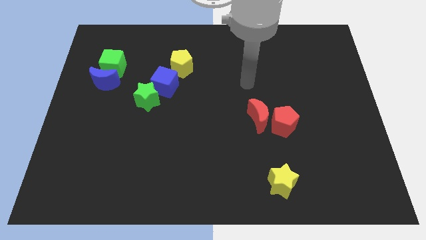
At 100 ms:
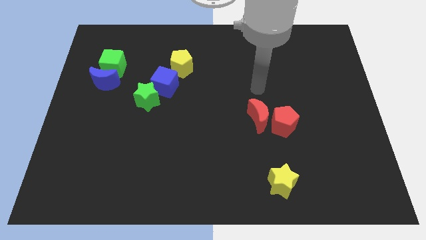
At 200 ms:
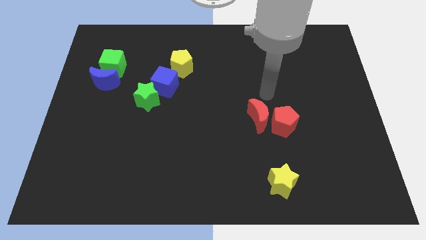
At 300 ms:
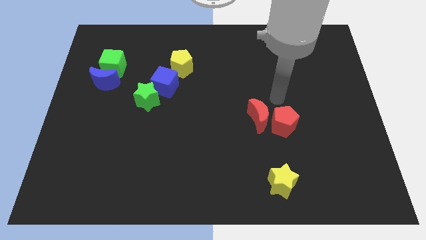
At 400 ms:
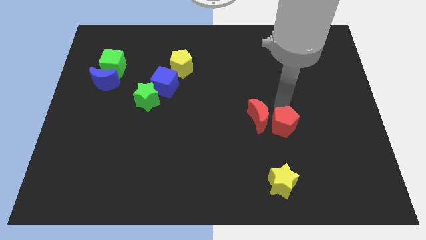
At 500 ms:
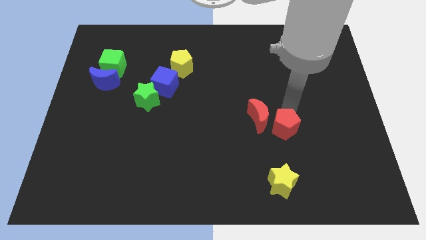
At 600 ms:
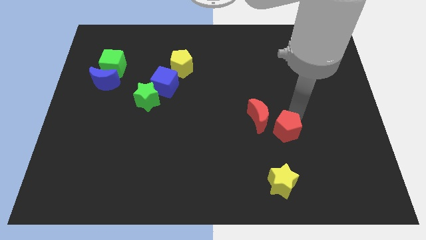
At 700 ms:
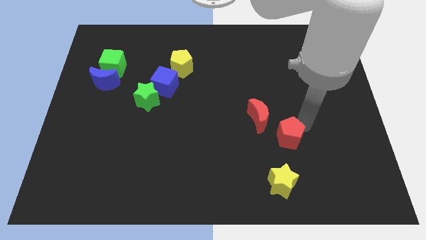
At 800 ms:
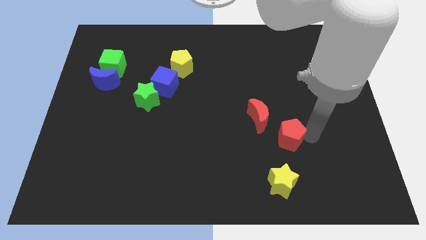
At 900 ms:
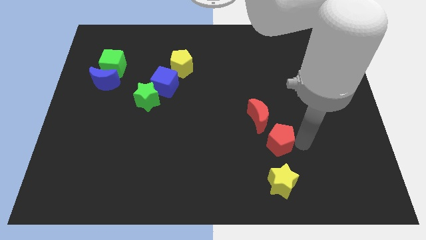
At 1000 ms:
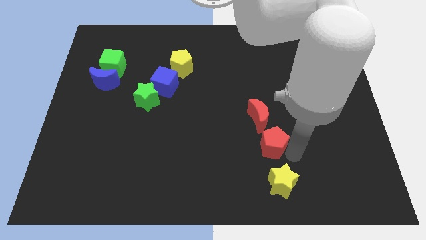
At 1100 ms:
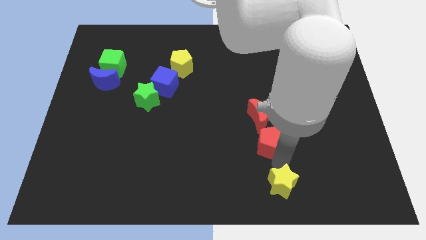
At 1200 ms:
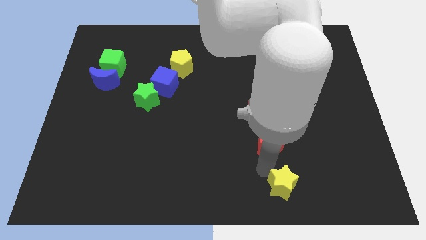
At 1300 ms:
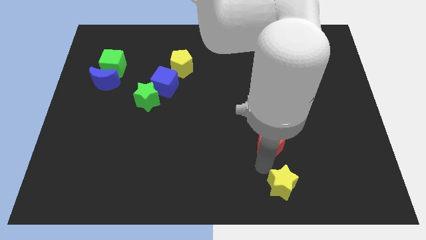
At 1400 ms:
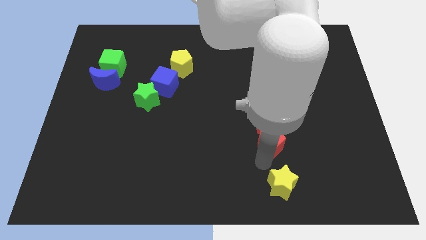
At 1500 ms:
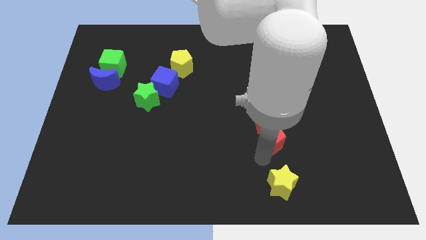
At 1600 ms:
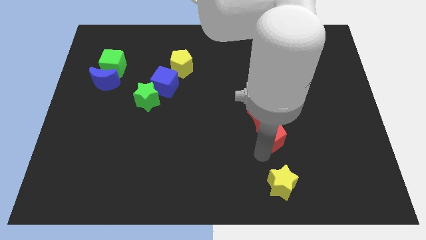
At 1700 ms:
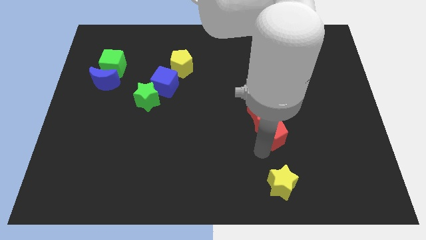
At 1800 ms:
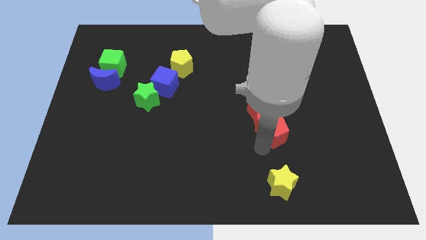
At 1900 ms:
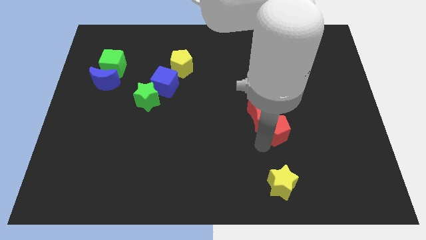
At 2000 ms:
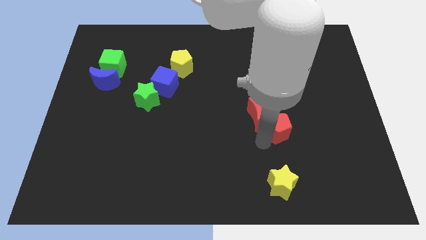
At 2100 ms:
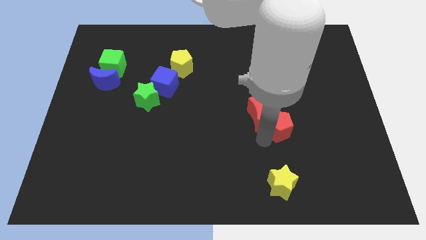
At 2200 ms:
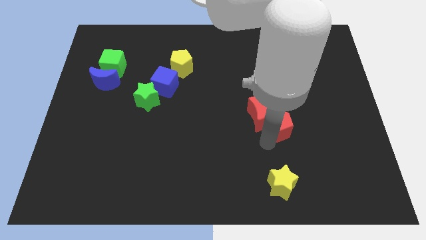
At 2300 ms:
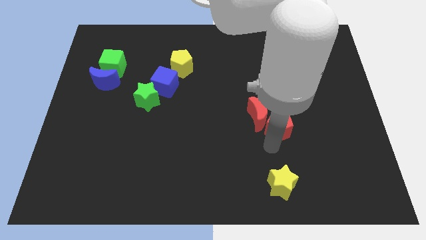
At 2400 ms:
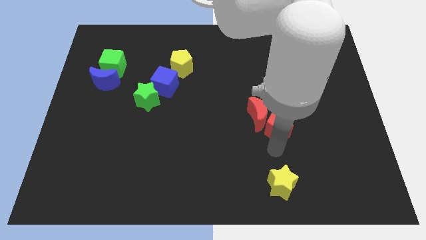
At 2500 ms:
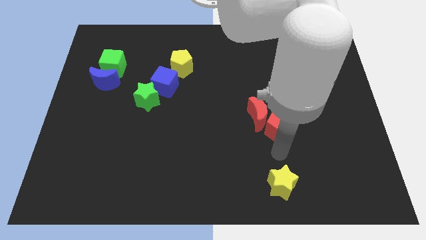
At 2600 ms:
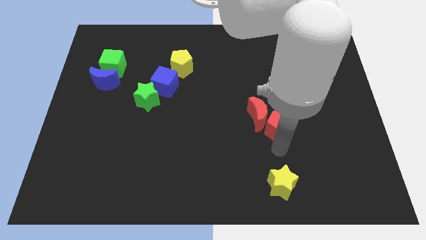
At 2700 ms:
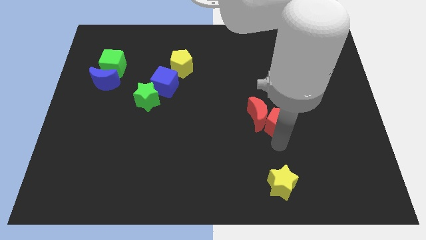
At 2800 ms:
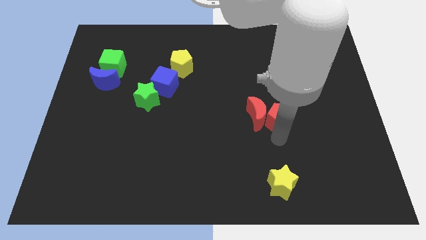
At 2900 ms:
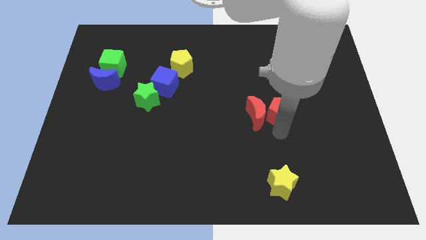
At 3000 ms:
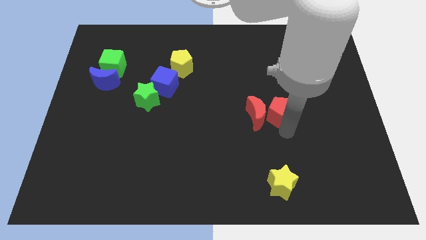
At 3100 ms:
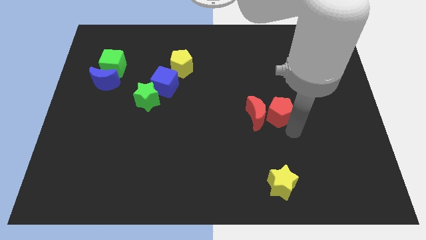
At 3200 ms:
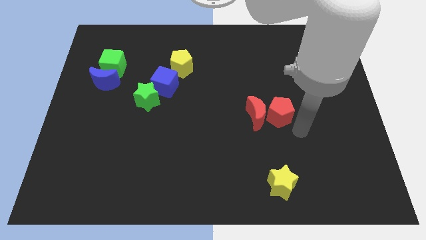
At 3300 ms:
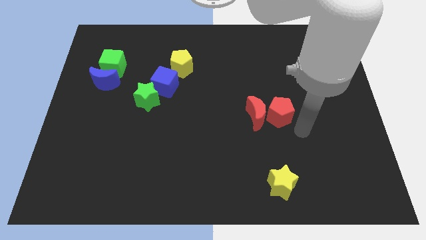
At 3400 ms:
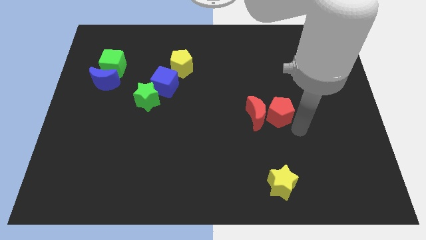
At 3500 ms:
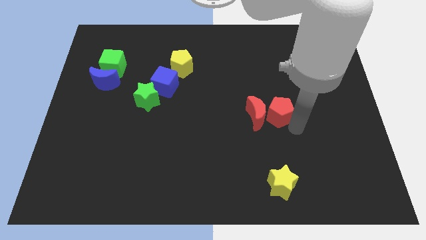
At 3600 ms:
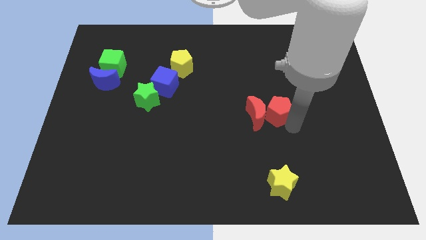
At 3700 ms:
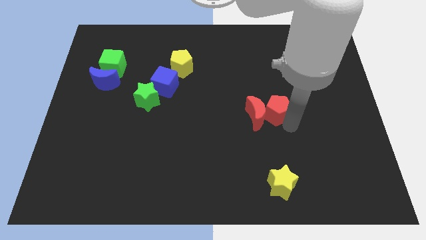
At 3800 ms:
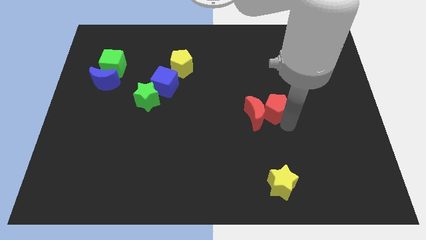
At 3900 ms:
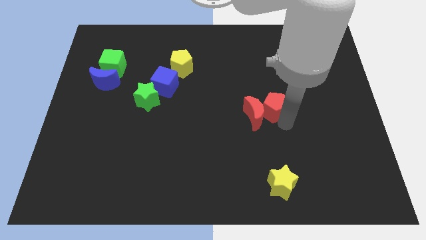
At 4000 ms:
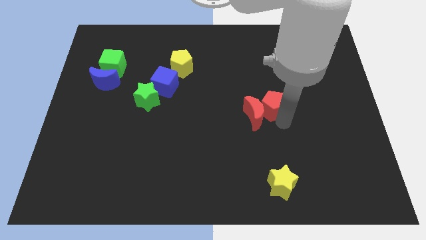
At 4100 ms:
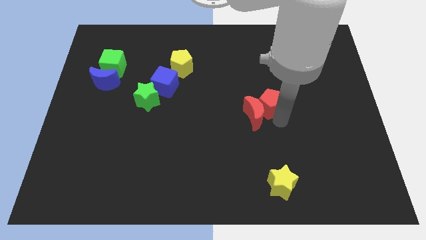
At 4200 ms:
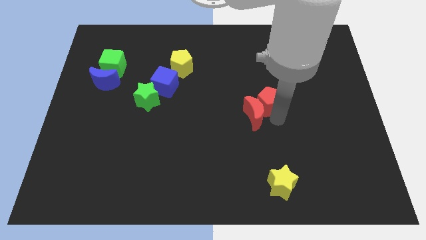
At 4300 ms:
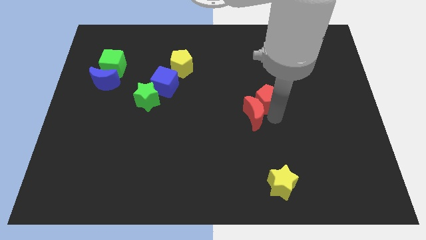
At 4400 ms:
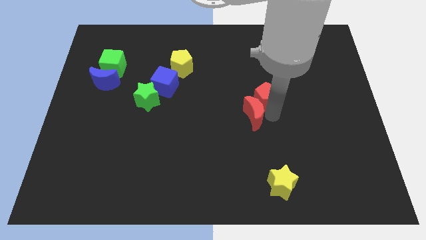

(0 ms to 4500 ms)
slightly slide the red pentagon diagonally up and to the left

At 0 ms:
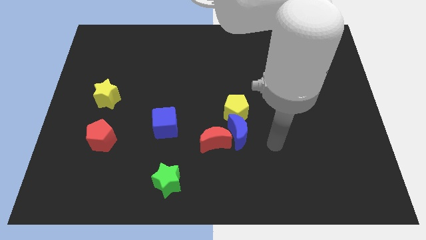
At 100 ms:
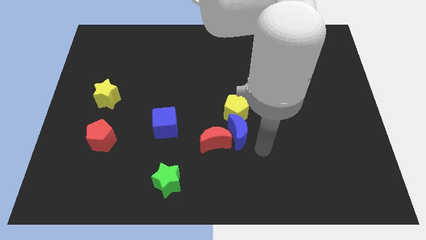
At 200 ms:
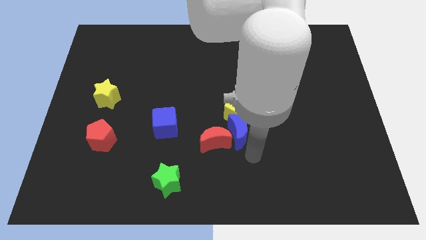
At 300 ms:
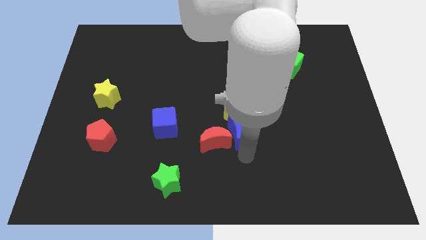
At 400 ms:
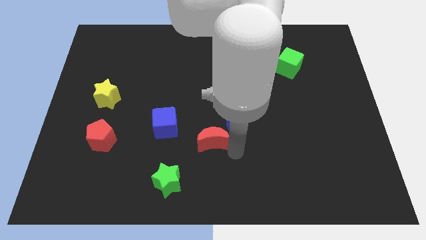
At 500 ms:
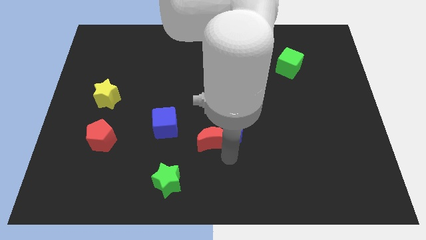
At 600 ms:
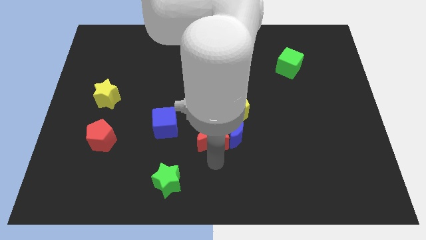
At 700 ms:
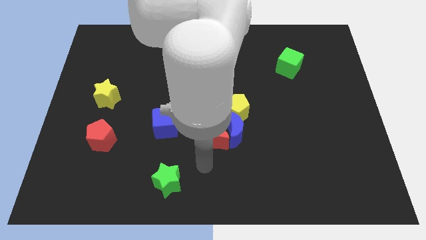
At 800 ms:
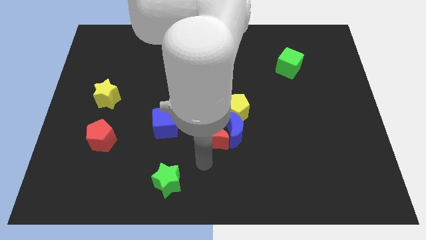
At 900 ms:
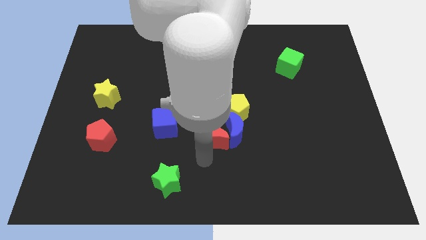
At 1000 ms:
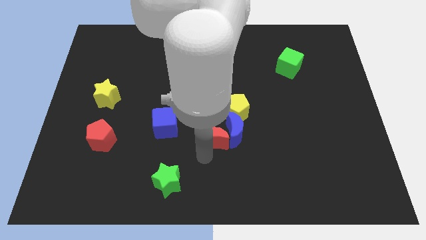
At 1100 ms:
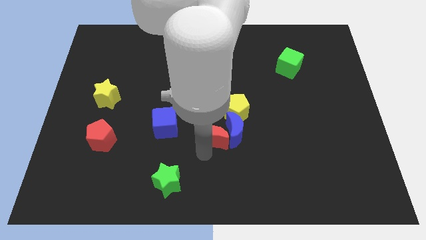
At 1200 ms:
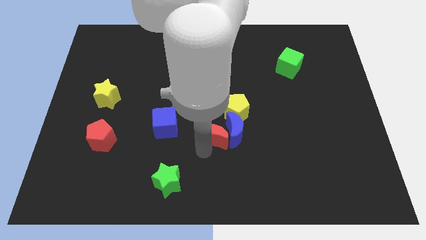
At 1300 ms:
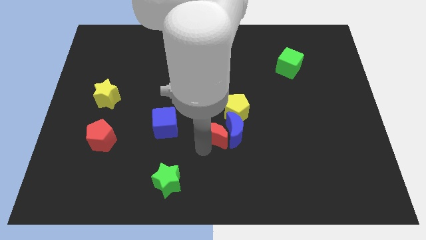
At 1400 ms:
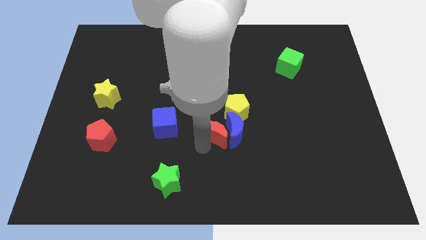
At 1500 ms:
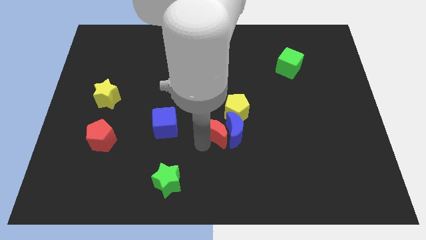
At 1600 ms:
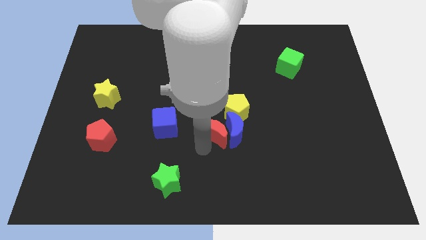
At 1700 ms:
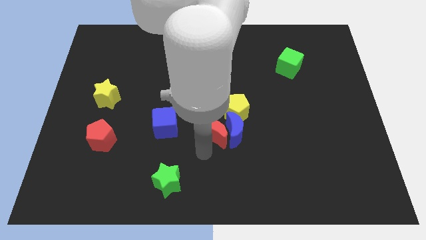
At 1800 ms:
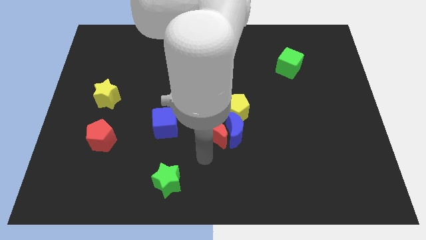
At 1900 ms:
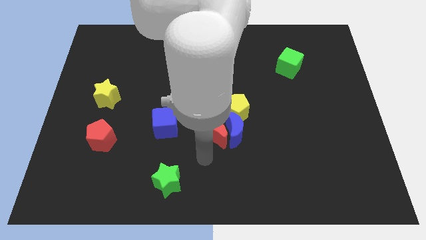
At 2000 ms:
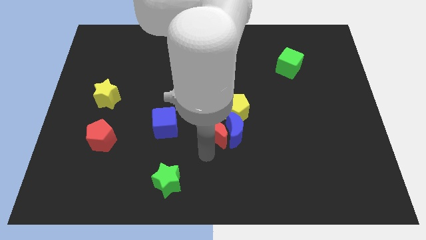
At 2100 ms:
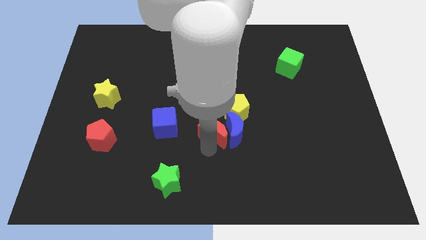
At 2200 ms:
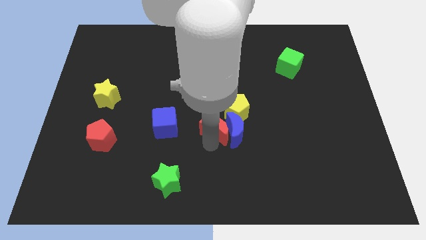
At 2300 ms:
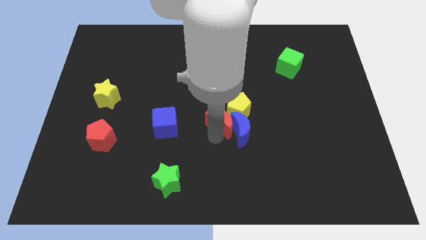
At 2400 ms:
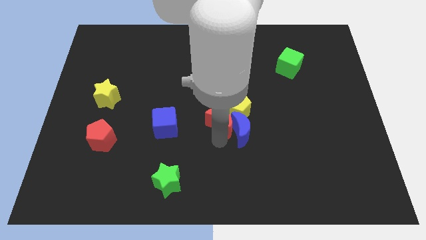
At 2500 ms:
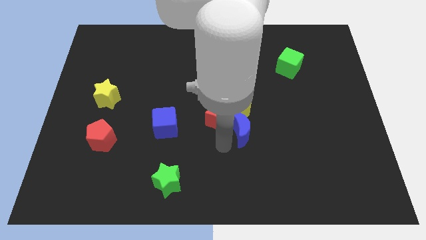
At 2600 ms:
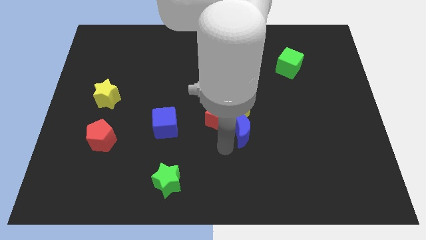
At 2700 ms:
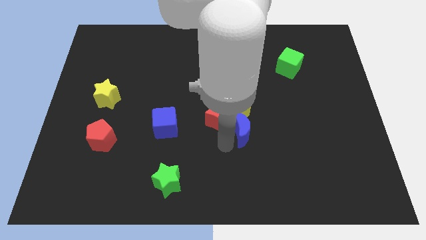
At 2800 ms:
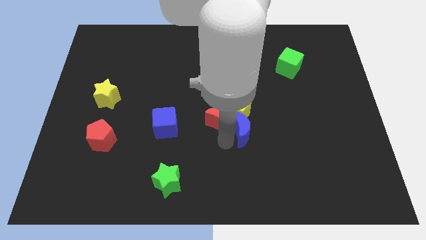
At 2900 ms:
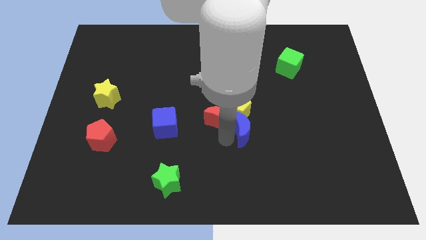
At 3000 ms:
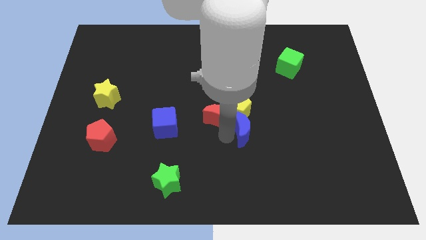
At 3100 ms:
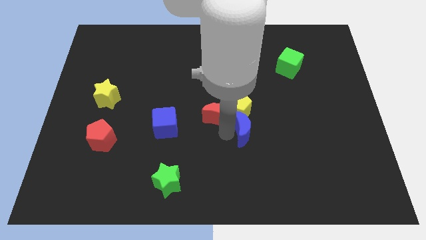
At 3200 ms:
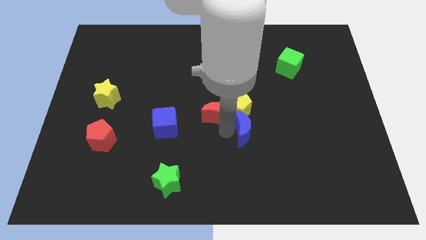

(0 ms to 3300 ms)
move the red moon up a bit
